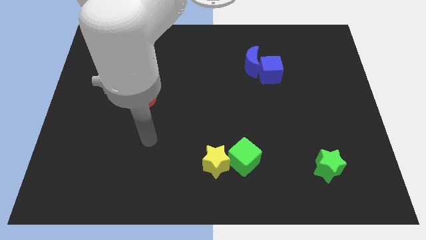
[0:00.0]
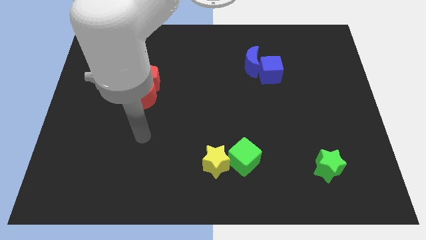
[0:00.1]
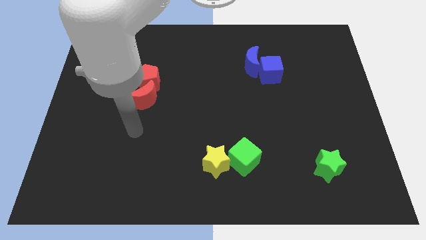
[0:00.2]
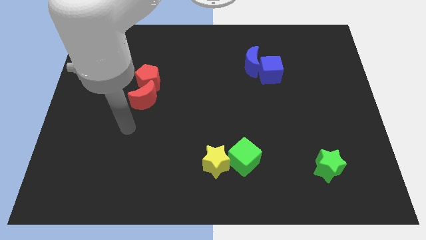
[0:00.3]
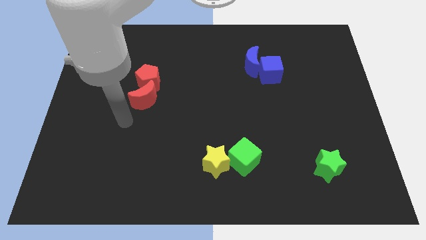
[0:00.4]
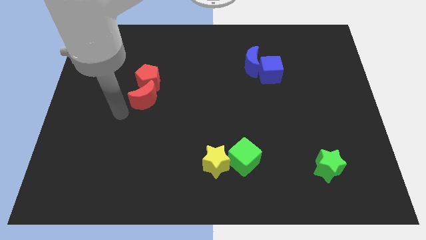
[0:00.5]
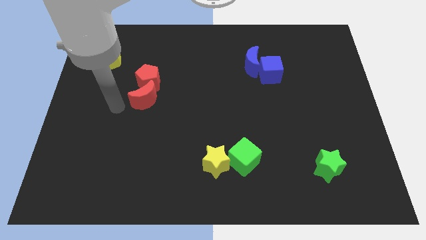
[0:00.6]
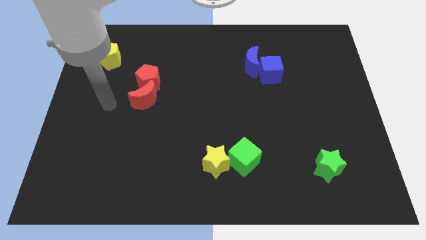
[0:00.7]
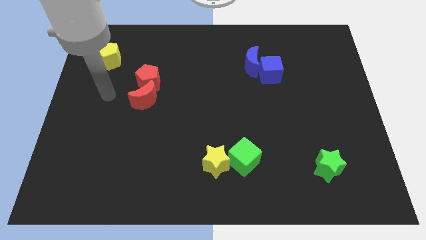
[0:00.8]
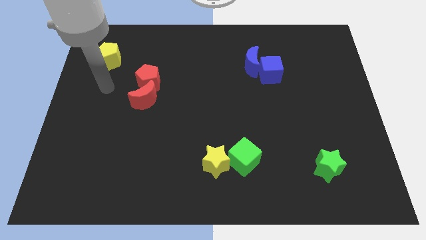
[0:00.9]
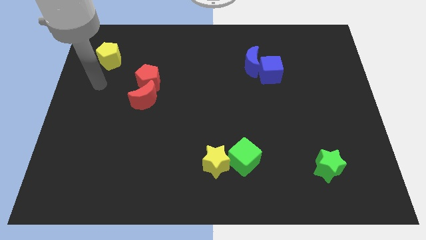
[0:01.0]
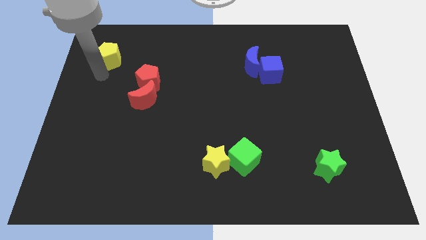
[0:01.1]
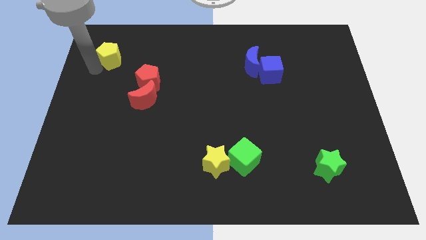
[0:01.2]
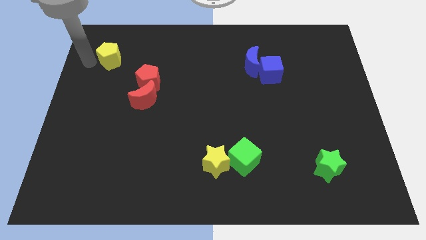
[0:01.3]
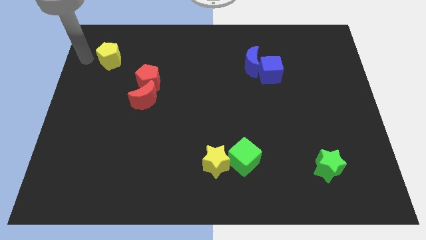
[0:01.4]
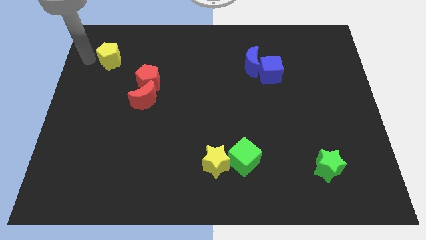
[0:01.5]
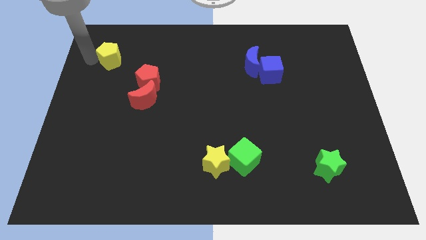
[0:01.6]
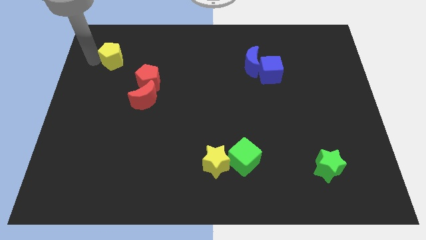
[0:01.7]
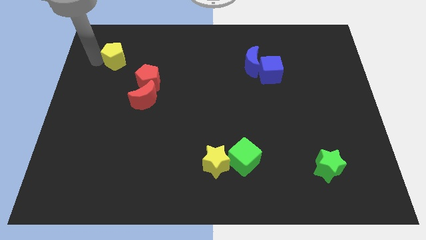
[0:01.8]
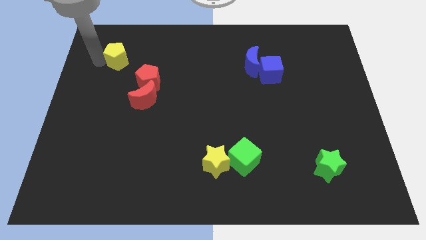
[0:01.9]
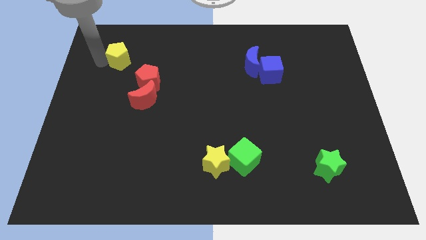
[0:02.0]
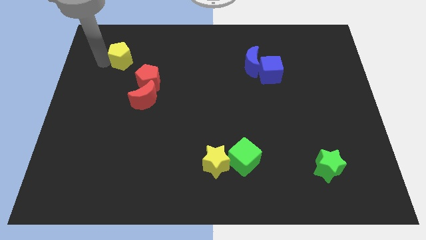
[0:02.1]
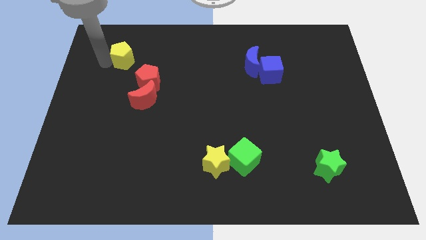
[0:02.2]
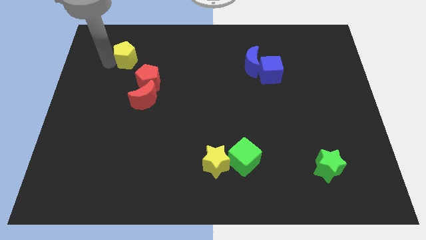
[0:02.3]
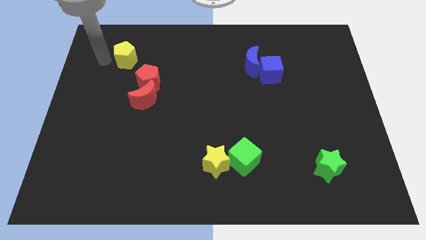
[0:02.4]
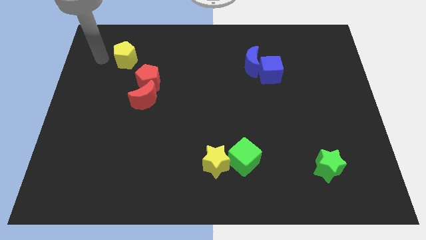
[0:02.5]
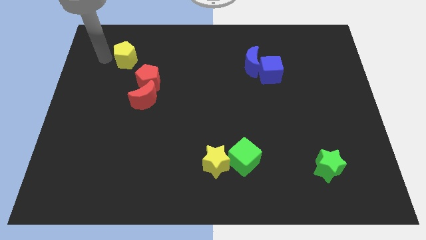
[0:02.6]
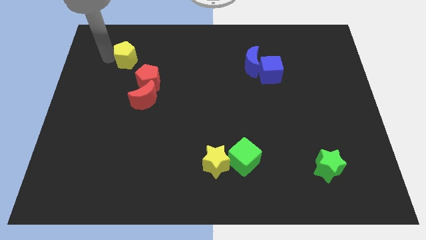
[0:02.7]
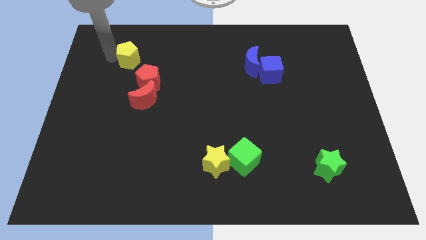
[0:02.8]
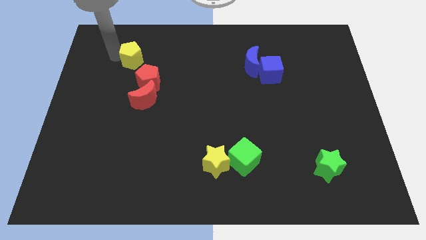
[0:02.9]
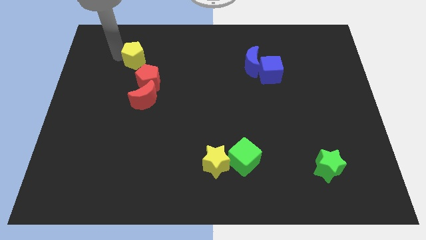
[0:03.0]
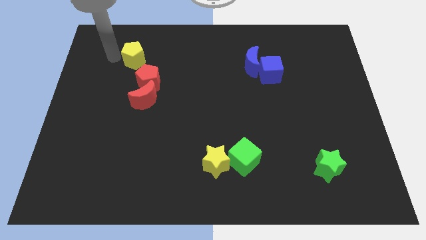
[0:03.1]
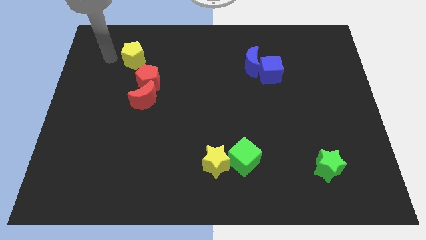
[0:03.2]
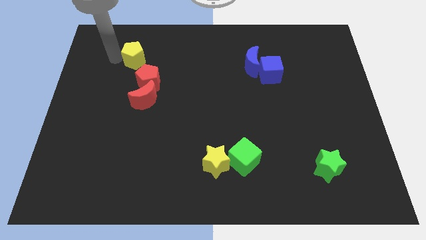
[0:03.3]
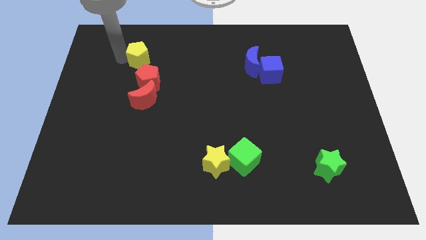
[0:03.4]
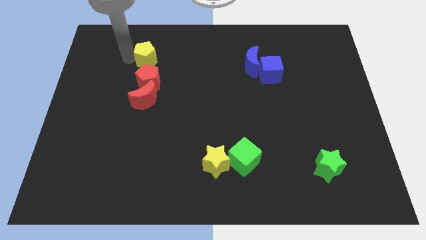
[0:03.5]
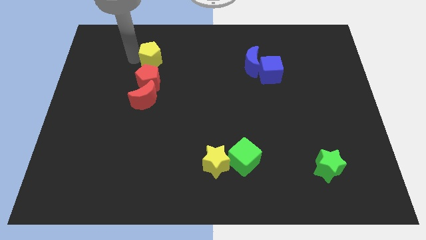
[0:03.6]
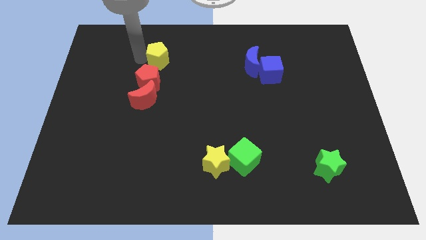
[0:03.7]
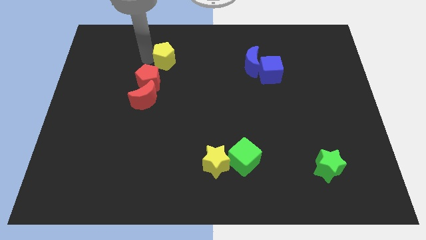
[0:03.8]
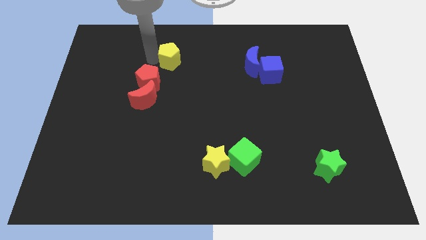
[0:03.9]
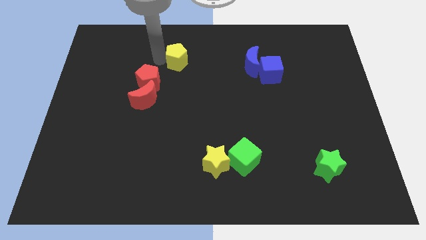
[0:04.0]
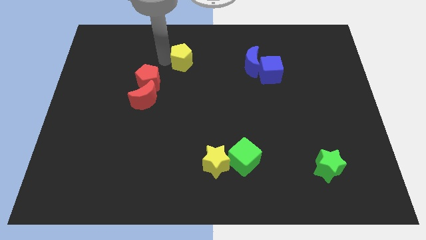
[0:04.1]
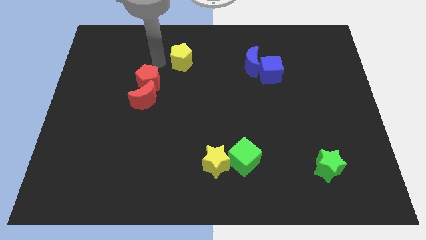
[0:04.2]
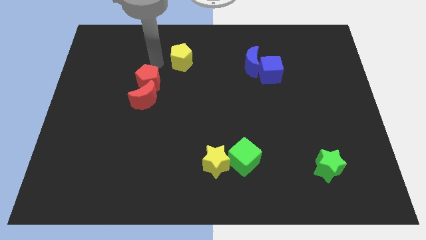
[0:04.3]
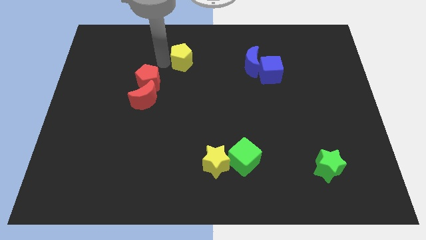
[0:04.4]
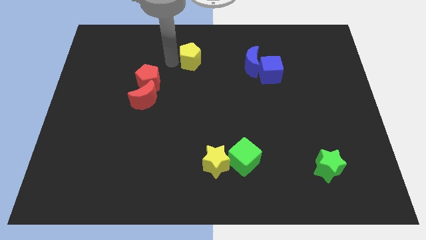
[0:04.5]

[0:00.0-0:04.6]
slide the yellow pentagon to the right

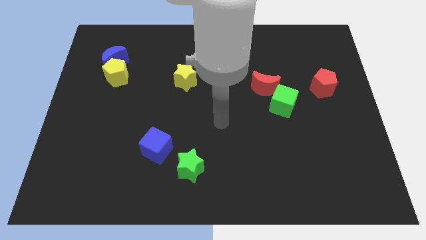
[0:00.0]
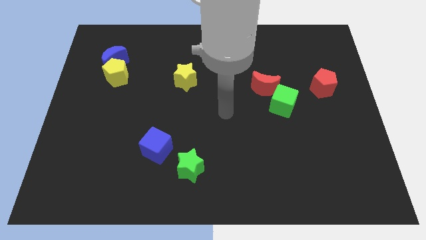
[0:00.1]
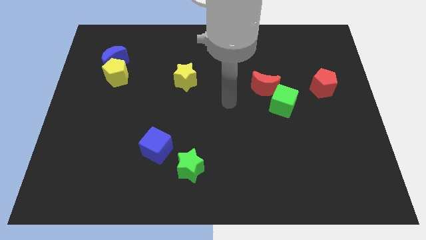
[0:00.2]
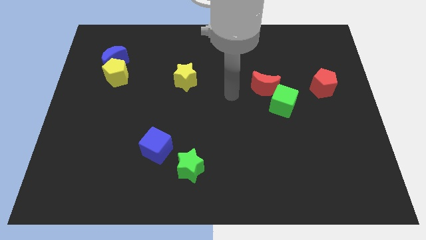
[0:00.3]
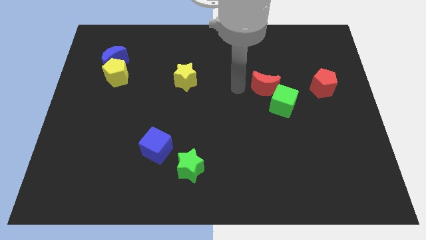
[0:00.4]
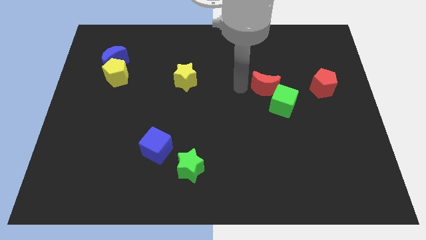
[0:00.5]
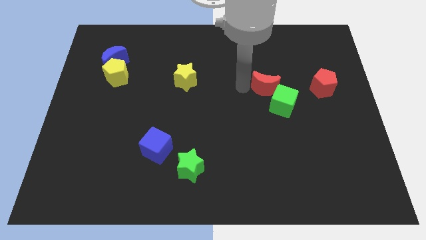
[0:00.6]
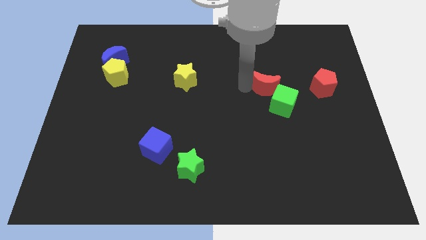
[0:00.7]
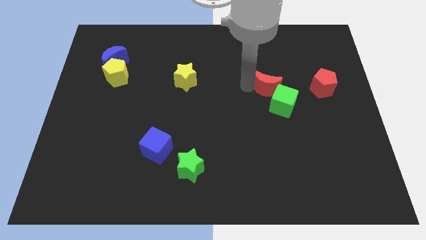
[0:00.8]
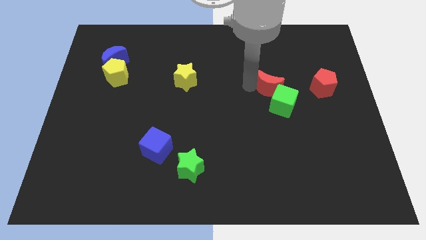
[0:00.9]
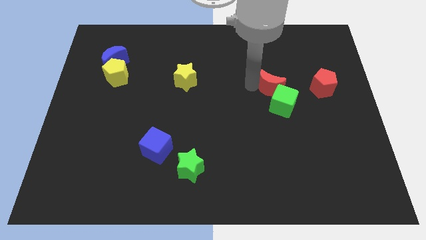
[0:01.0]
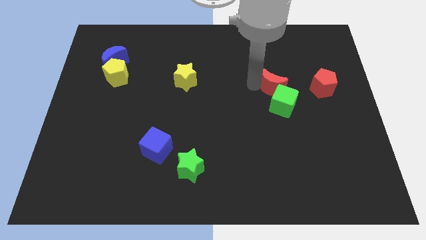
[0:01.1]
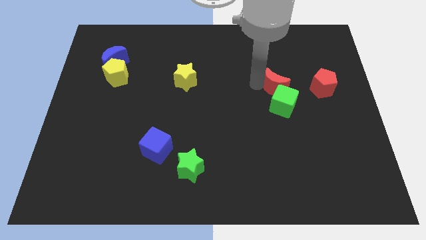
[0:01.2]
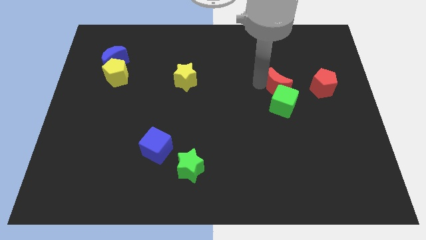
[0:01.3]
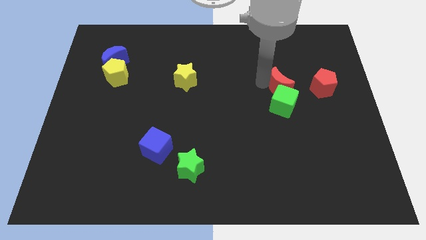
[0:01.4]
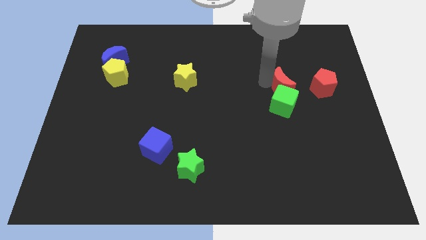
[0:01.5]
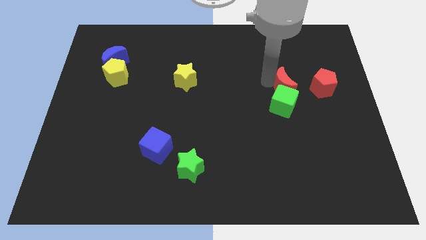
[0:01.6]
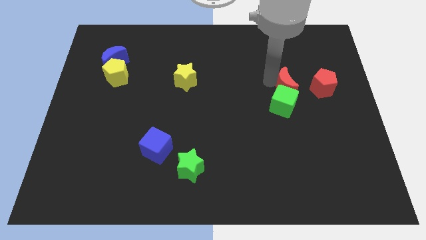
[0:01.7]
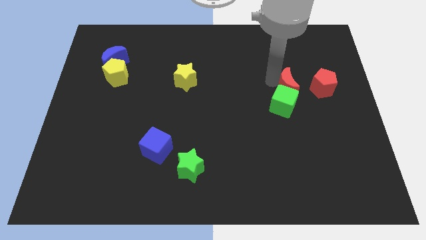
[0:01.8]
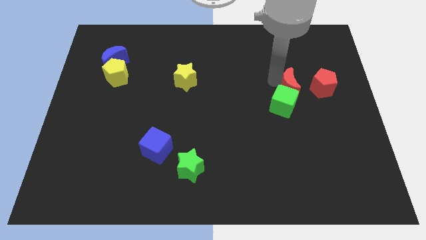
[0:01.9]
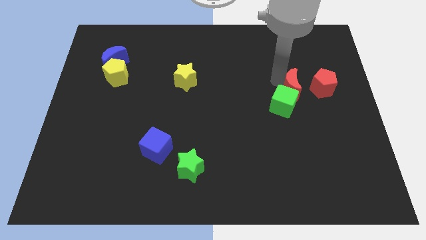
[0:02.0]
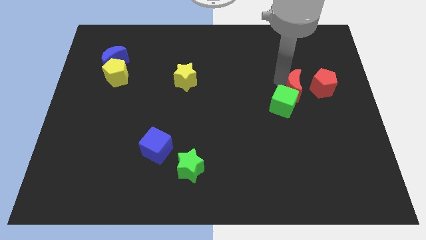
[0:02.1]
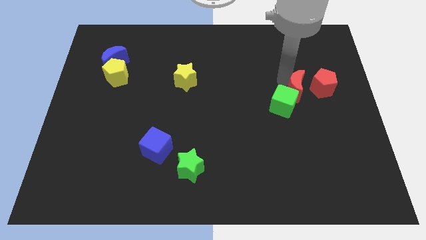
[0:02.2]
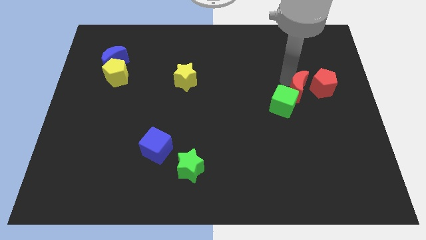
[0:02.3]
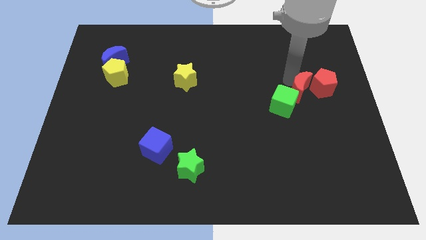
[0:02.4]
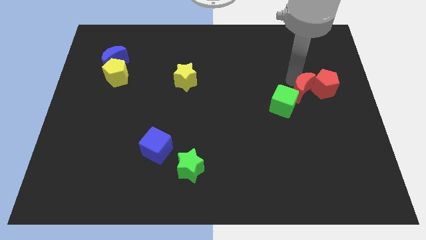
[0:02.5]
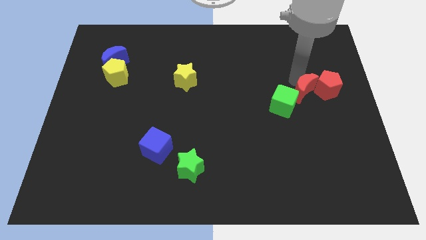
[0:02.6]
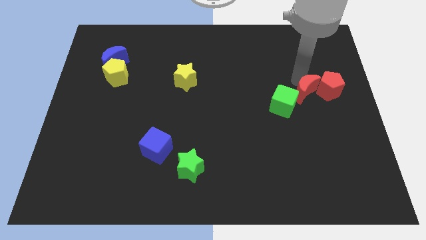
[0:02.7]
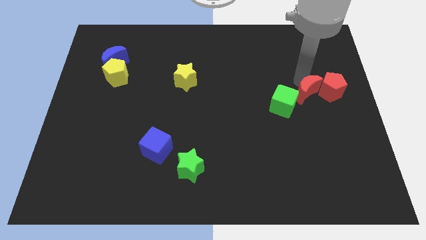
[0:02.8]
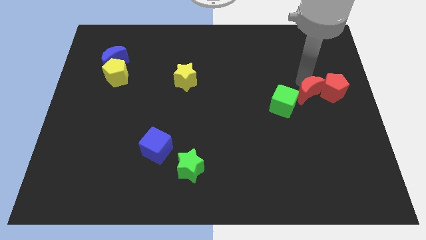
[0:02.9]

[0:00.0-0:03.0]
slightly push the red moon downwards and right
